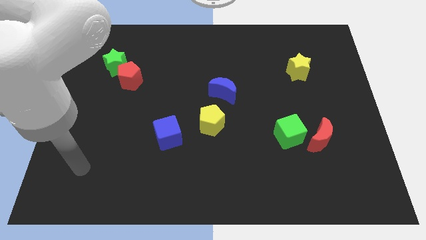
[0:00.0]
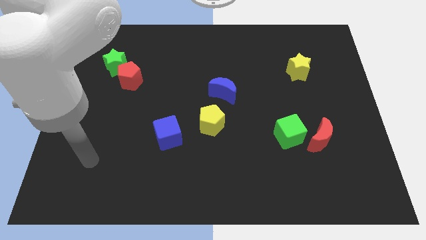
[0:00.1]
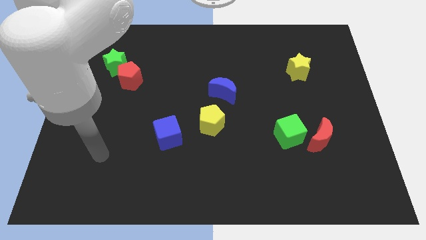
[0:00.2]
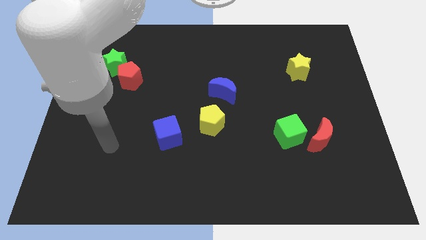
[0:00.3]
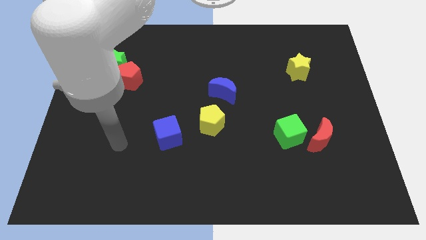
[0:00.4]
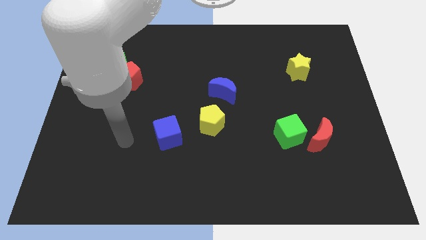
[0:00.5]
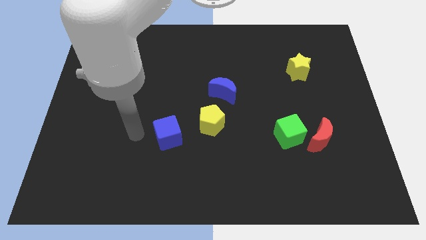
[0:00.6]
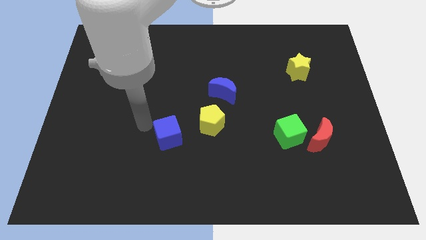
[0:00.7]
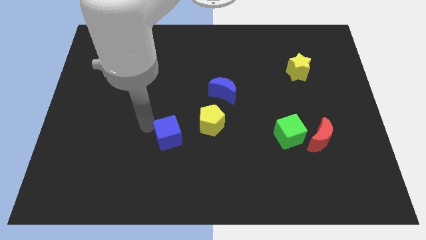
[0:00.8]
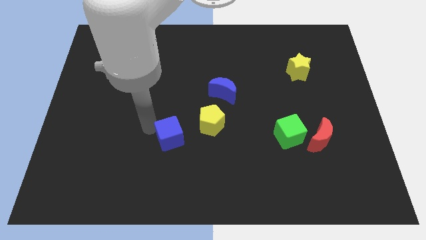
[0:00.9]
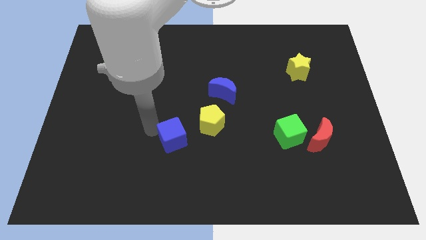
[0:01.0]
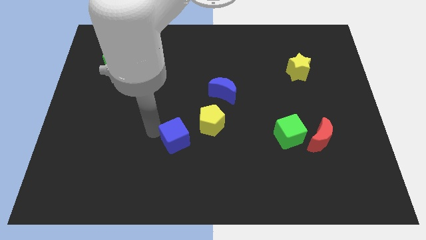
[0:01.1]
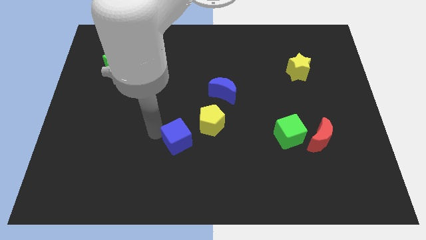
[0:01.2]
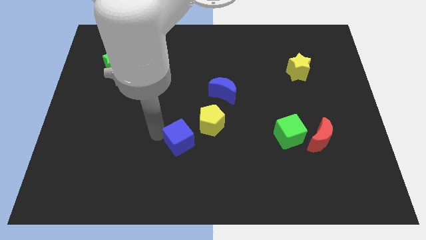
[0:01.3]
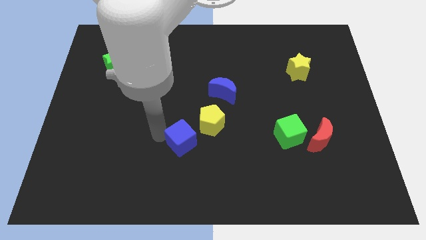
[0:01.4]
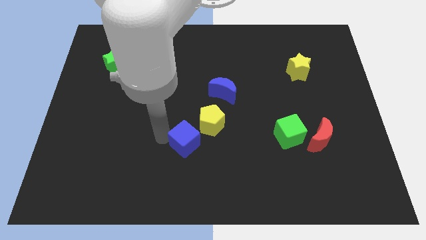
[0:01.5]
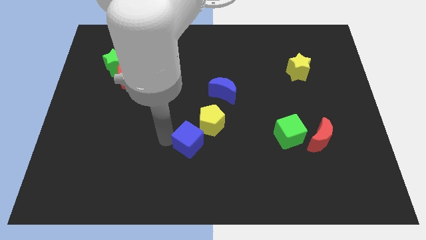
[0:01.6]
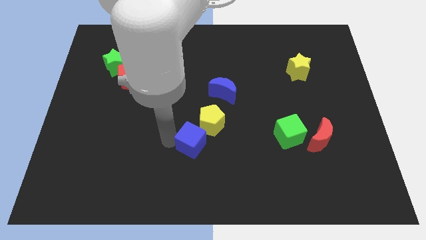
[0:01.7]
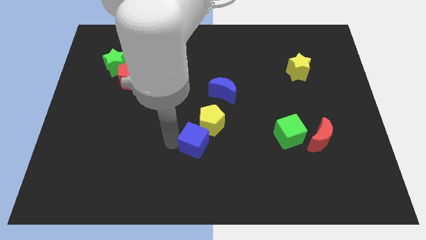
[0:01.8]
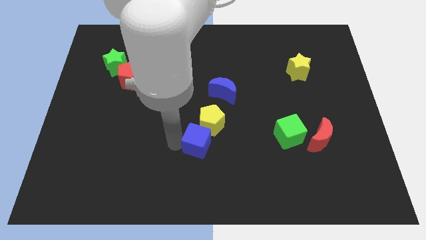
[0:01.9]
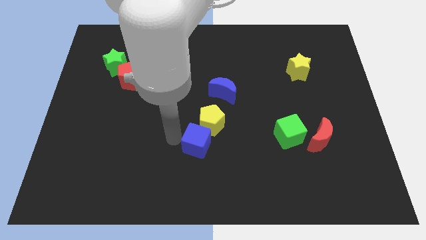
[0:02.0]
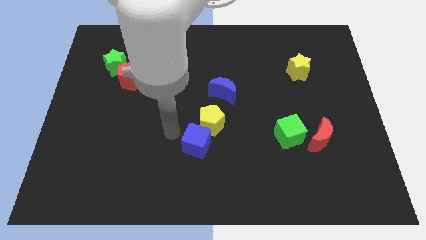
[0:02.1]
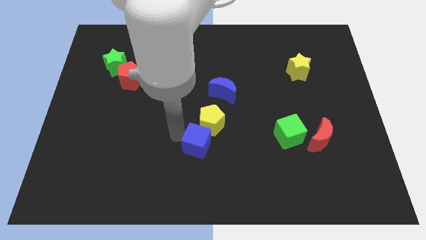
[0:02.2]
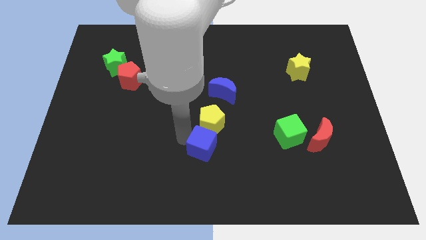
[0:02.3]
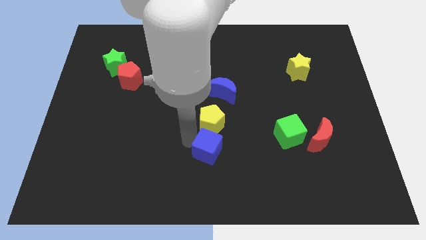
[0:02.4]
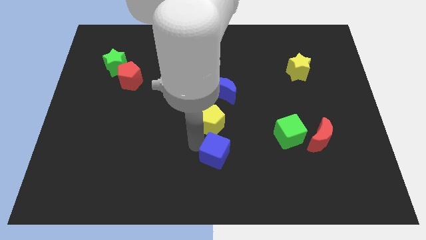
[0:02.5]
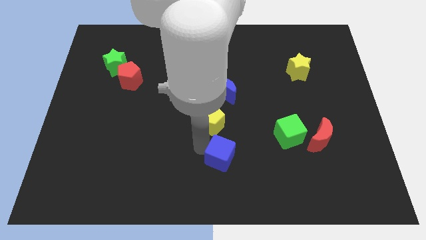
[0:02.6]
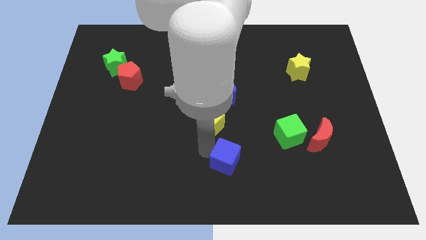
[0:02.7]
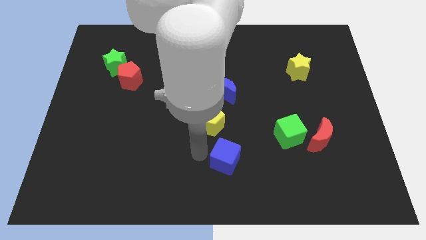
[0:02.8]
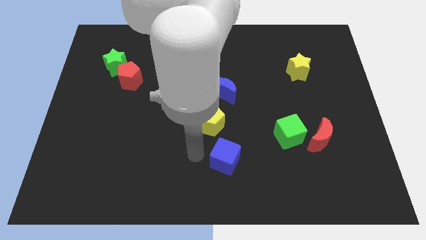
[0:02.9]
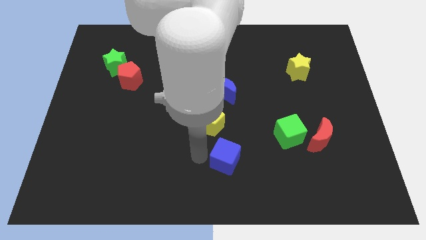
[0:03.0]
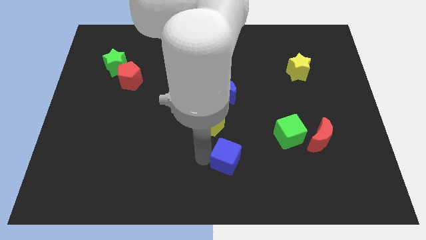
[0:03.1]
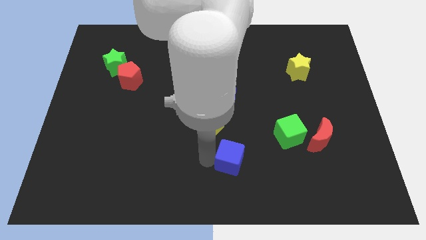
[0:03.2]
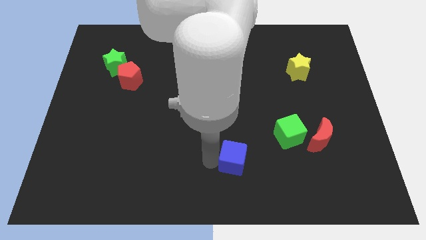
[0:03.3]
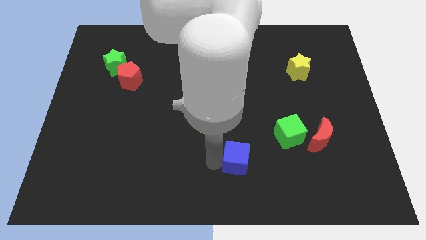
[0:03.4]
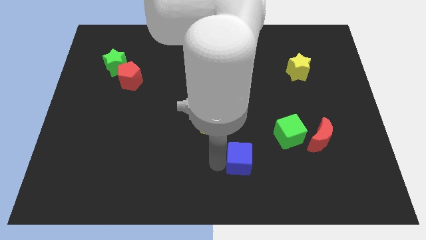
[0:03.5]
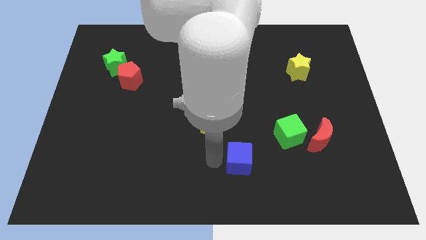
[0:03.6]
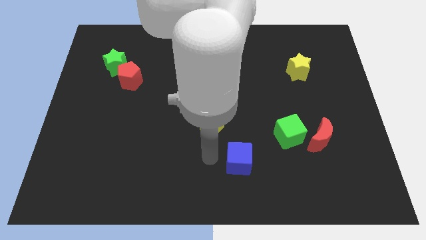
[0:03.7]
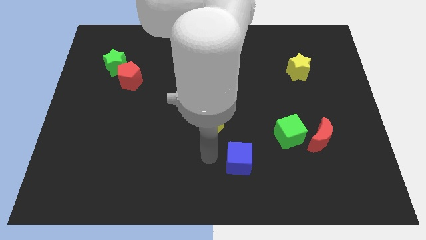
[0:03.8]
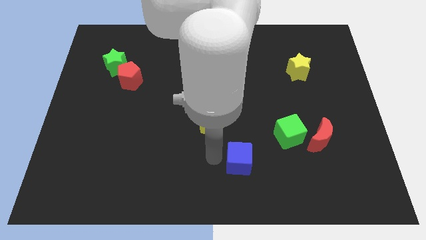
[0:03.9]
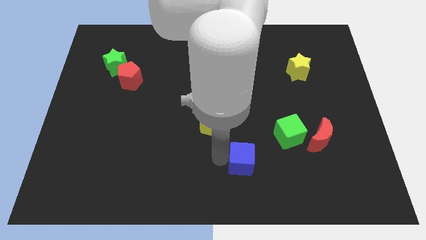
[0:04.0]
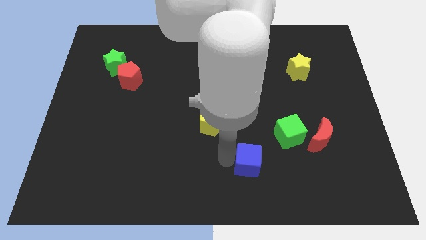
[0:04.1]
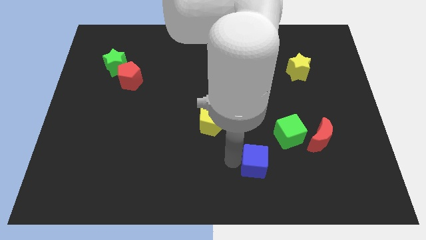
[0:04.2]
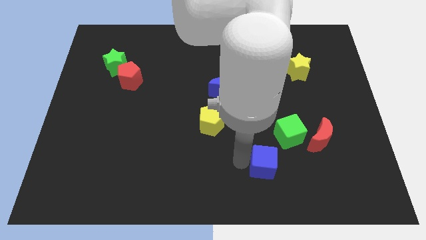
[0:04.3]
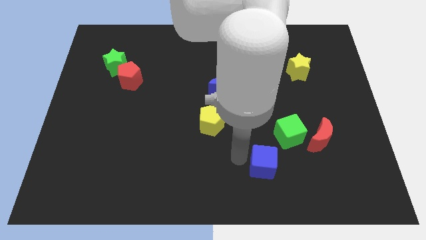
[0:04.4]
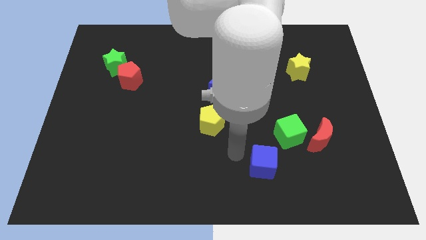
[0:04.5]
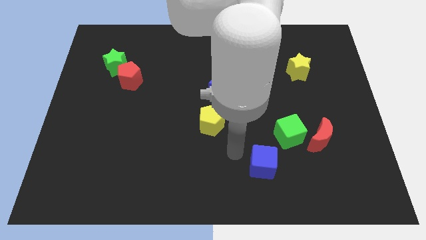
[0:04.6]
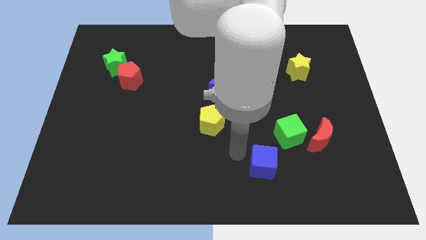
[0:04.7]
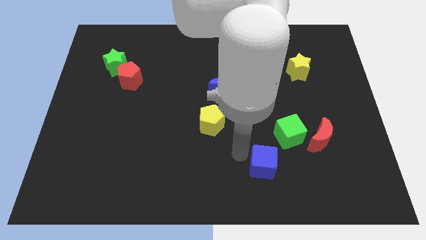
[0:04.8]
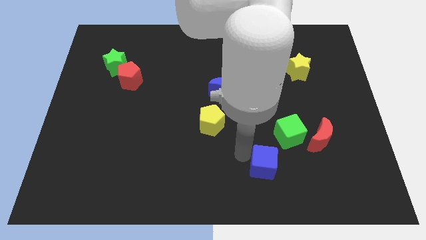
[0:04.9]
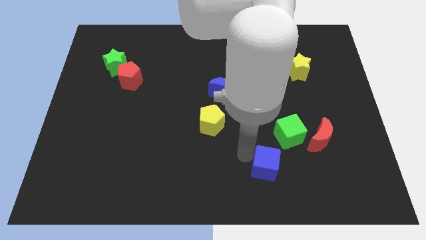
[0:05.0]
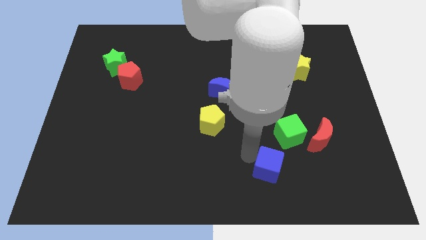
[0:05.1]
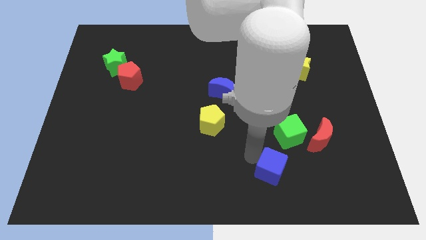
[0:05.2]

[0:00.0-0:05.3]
put the blue cube below the green cube

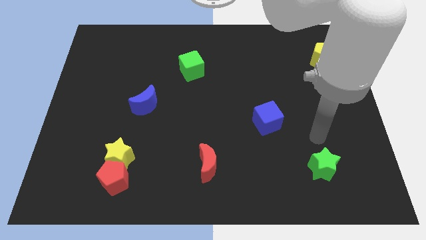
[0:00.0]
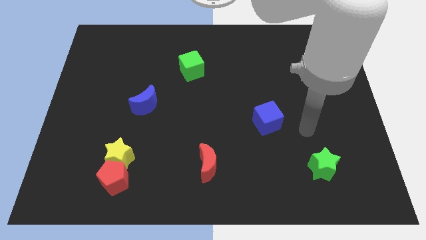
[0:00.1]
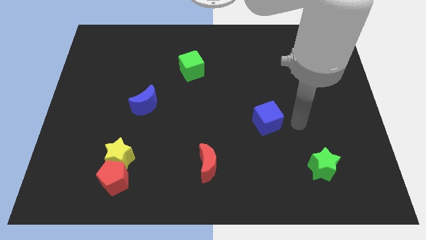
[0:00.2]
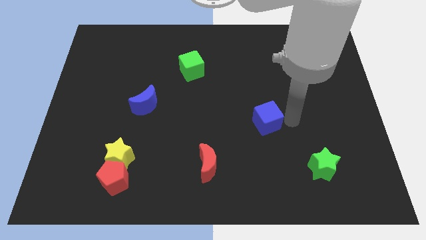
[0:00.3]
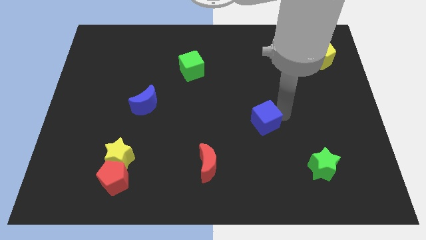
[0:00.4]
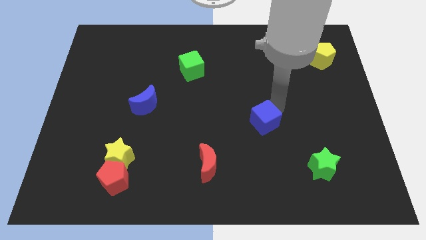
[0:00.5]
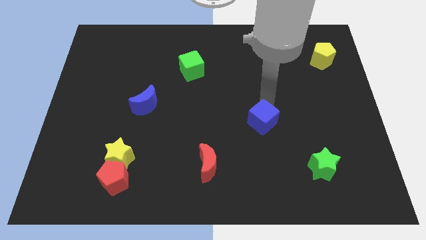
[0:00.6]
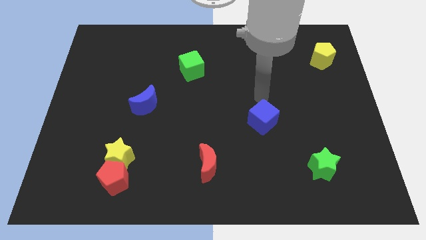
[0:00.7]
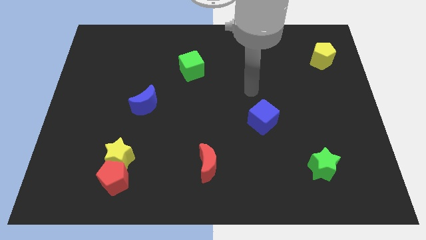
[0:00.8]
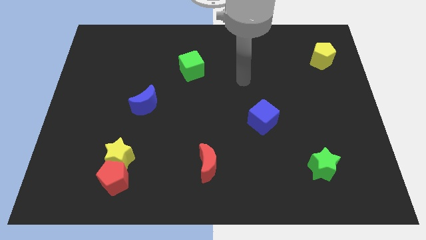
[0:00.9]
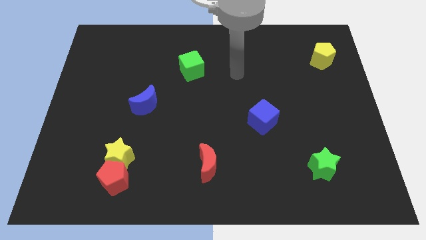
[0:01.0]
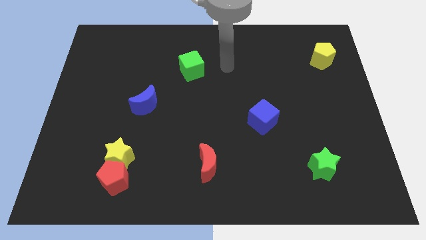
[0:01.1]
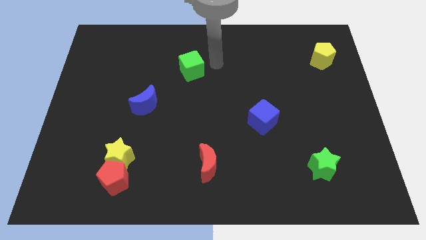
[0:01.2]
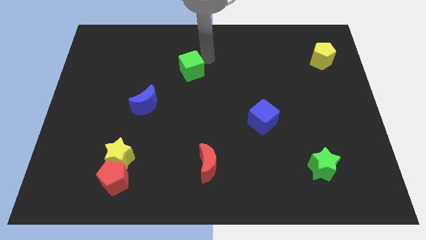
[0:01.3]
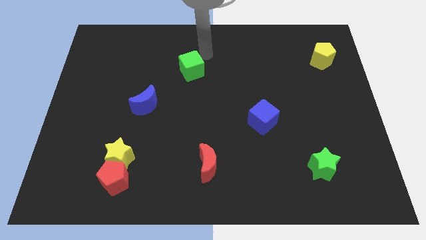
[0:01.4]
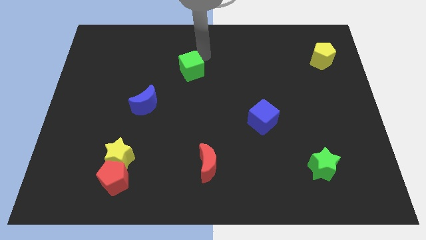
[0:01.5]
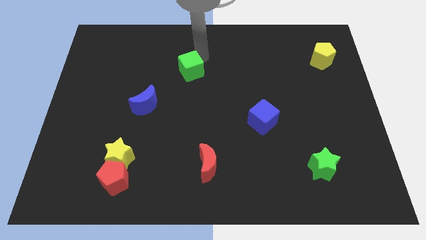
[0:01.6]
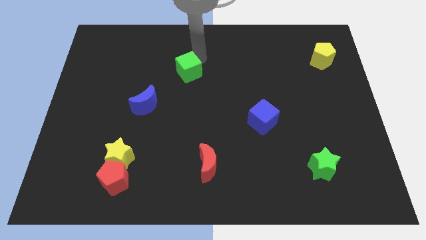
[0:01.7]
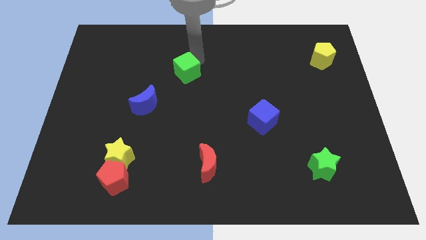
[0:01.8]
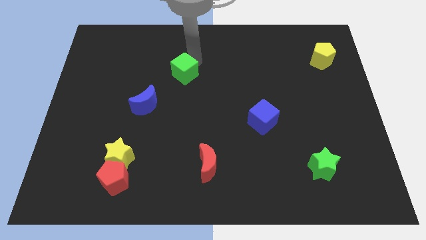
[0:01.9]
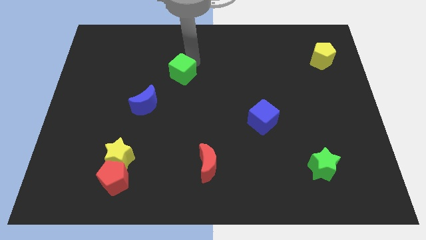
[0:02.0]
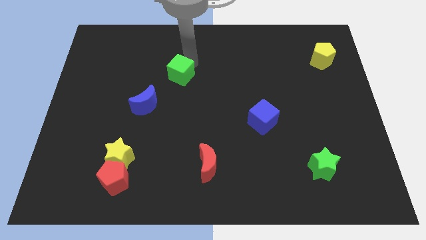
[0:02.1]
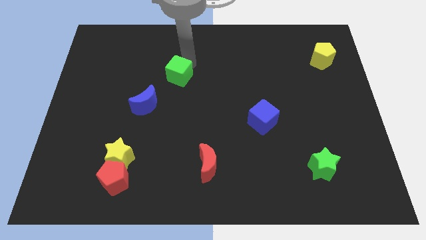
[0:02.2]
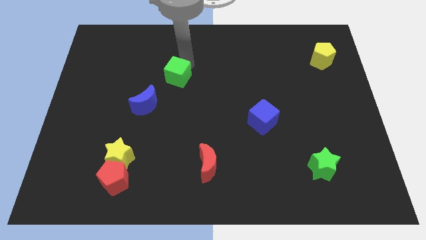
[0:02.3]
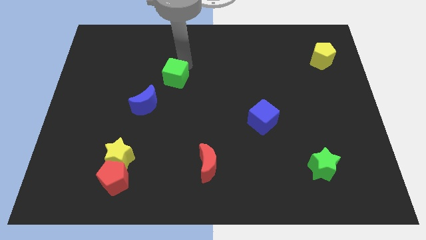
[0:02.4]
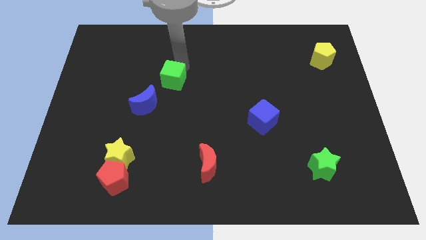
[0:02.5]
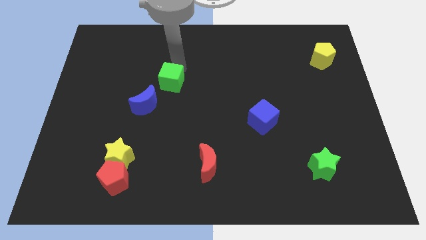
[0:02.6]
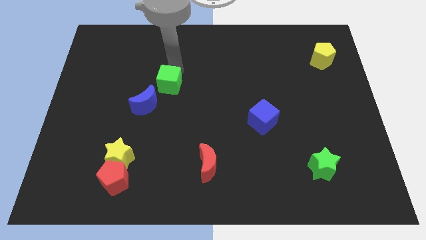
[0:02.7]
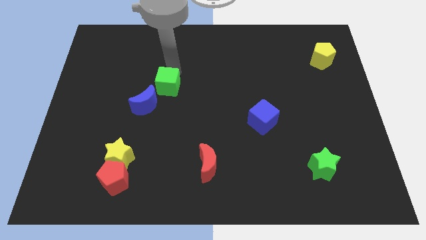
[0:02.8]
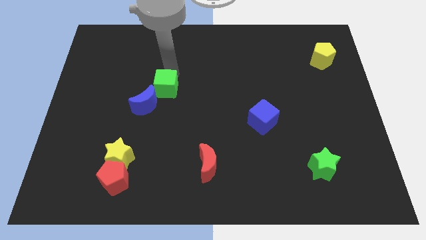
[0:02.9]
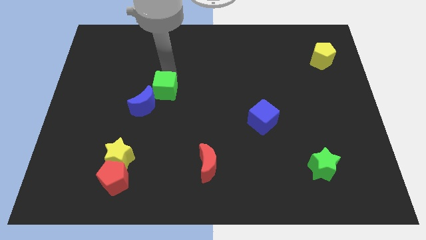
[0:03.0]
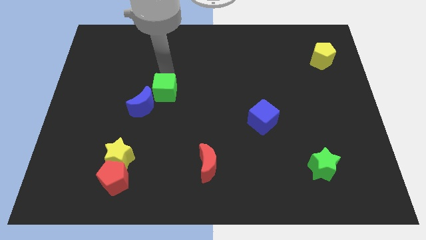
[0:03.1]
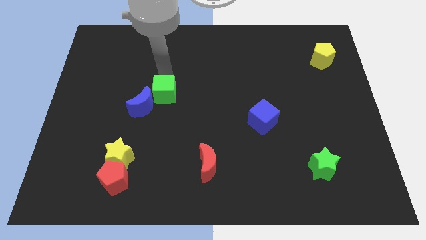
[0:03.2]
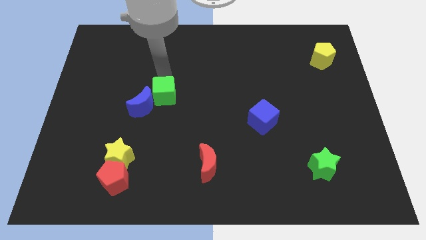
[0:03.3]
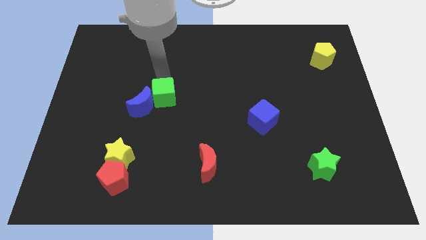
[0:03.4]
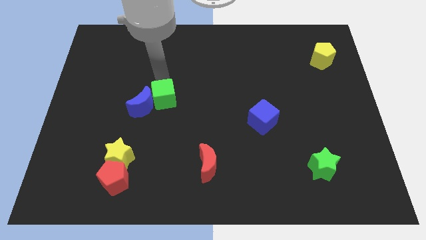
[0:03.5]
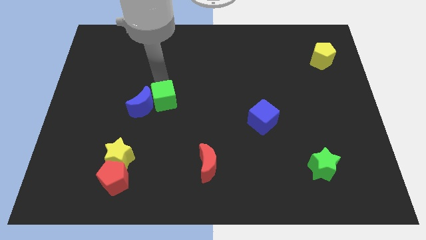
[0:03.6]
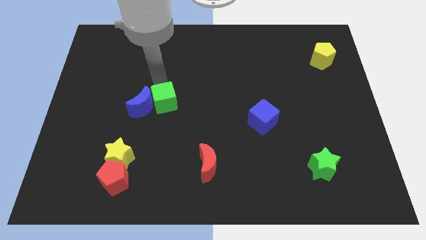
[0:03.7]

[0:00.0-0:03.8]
slide the green cube to the bottom right of the blue moon
